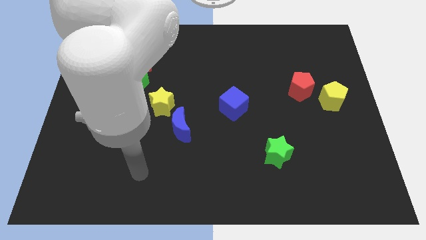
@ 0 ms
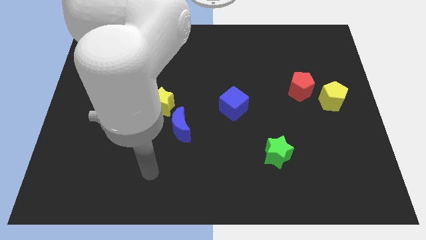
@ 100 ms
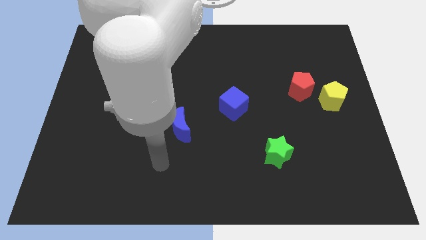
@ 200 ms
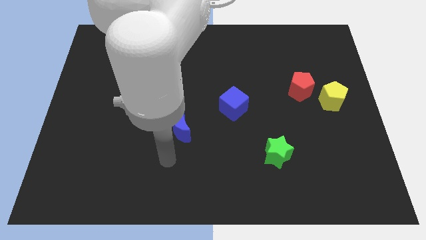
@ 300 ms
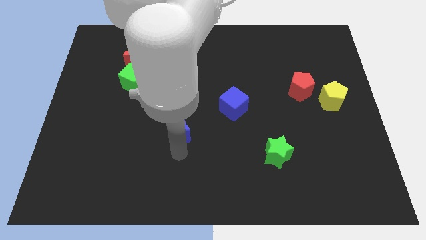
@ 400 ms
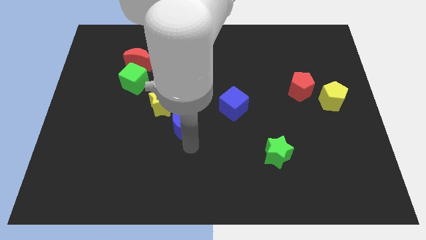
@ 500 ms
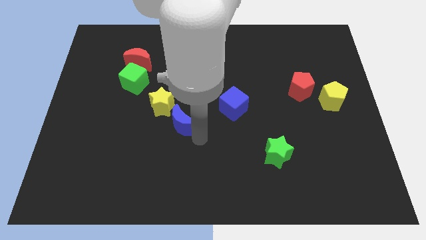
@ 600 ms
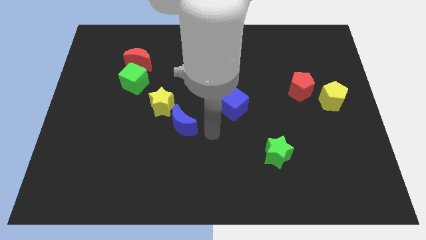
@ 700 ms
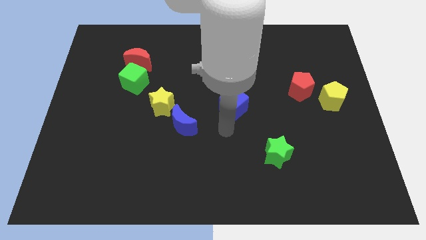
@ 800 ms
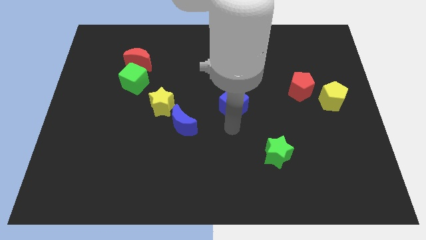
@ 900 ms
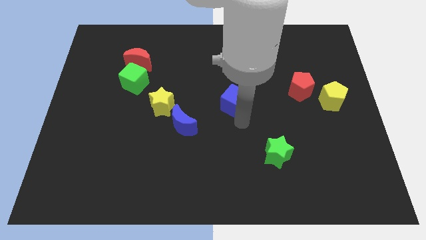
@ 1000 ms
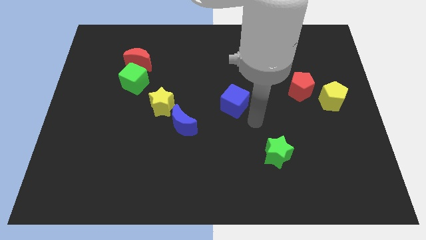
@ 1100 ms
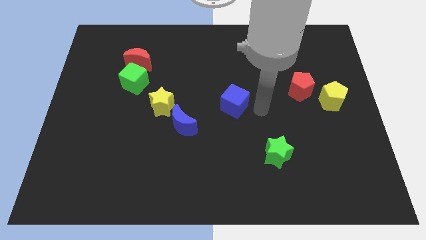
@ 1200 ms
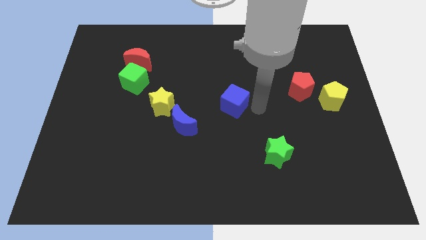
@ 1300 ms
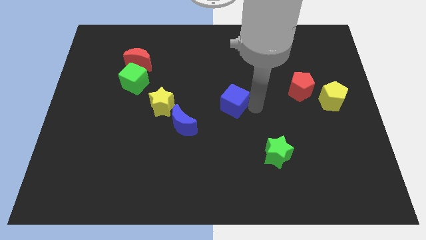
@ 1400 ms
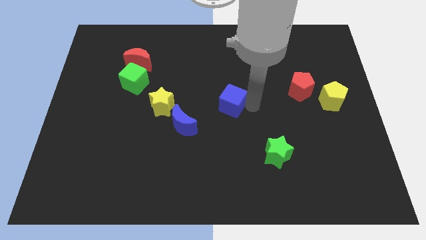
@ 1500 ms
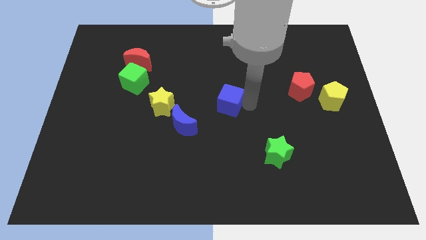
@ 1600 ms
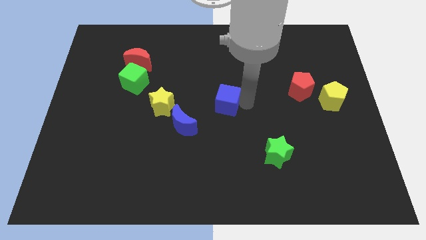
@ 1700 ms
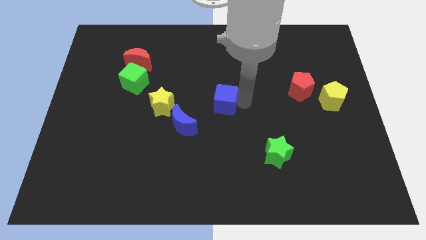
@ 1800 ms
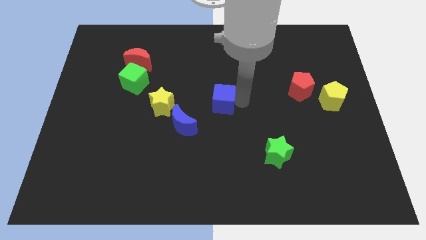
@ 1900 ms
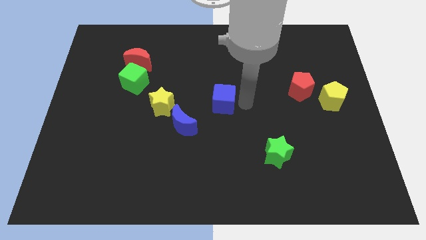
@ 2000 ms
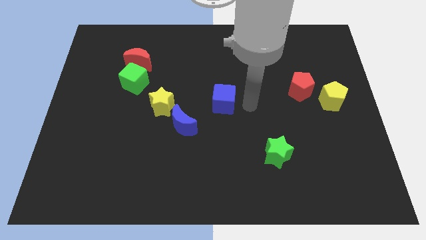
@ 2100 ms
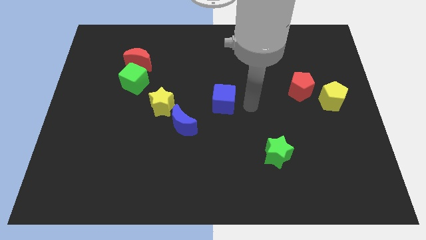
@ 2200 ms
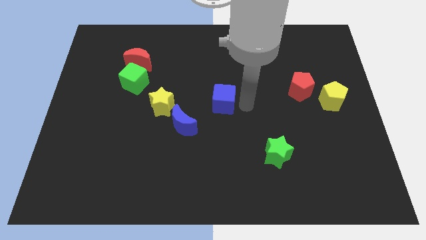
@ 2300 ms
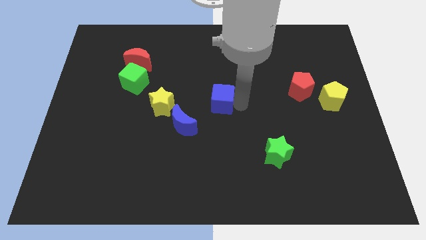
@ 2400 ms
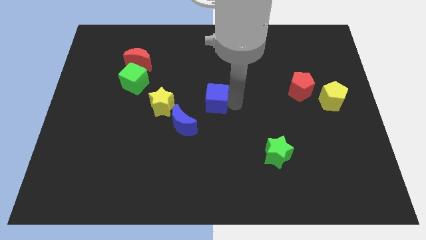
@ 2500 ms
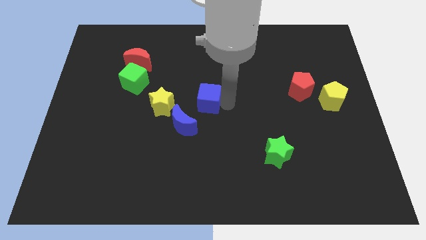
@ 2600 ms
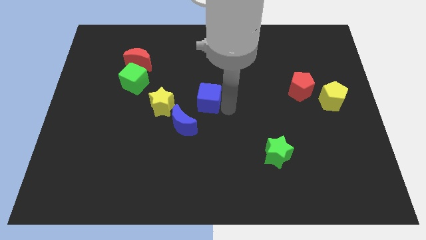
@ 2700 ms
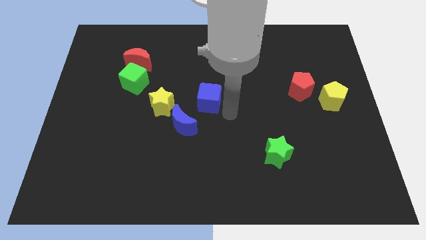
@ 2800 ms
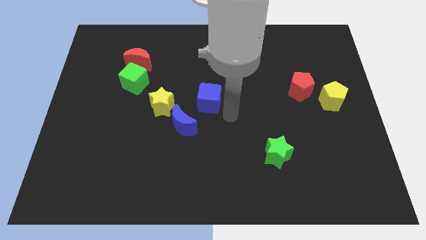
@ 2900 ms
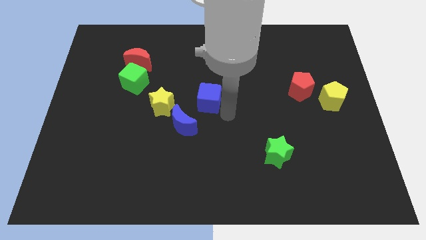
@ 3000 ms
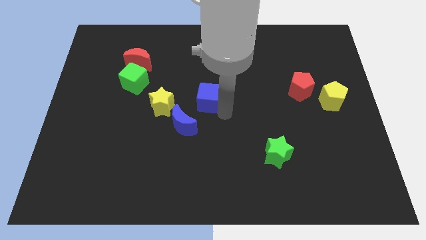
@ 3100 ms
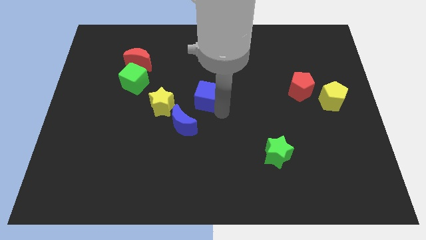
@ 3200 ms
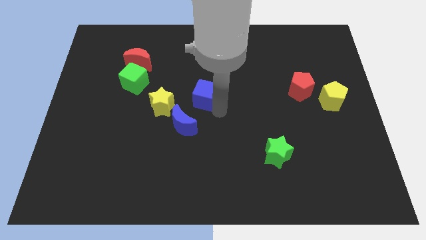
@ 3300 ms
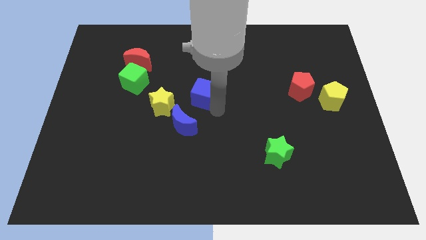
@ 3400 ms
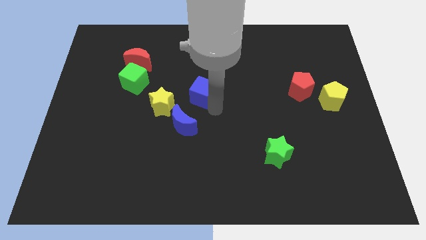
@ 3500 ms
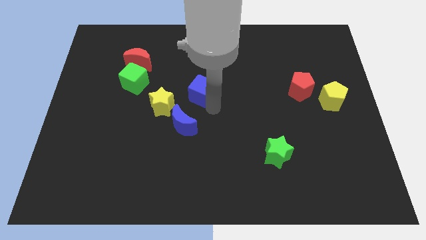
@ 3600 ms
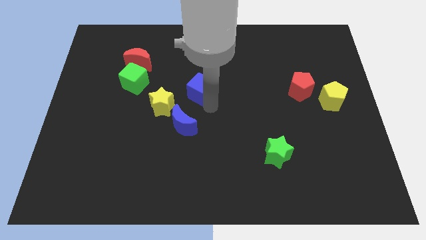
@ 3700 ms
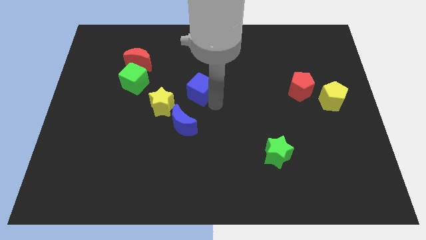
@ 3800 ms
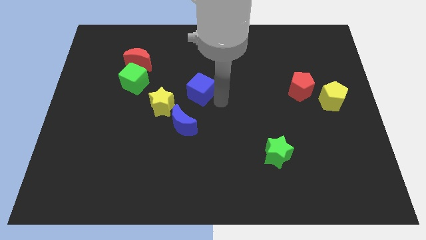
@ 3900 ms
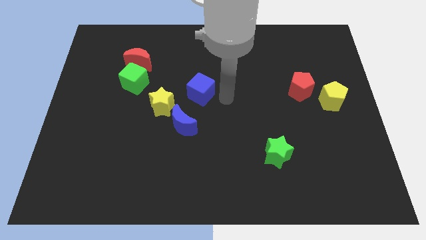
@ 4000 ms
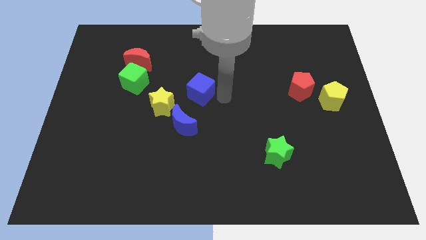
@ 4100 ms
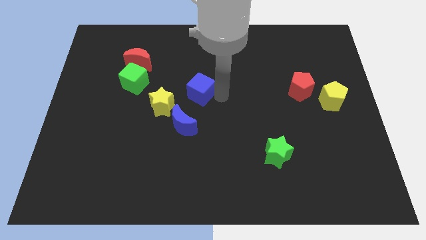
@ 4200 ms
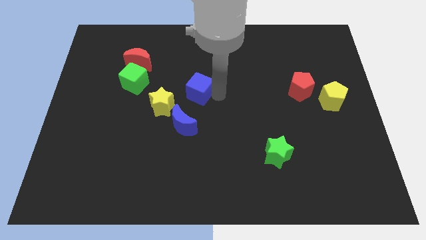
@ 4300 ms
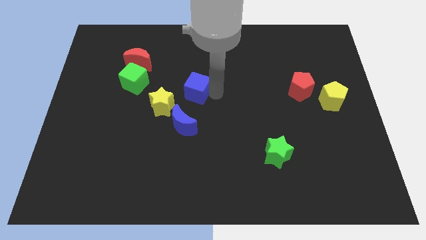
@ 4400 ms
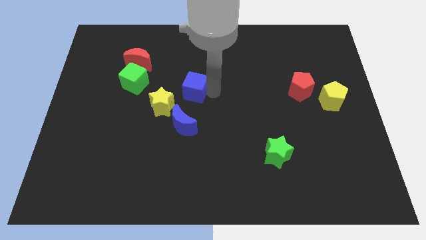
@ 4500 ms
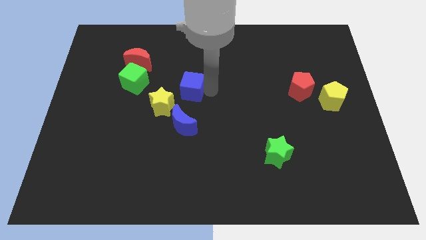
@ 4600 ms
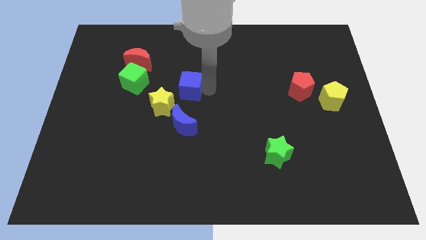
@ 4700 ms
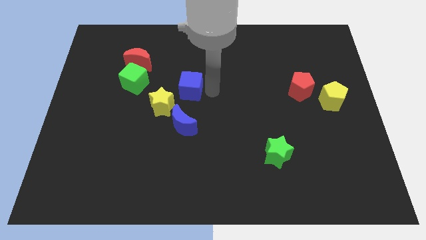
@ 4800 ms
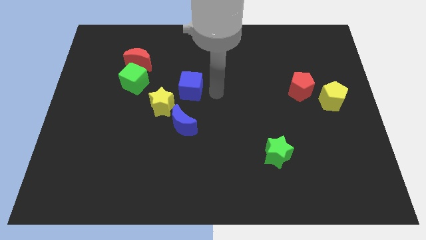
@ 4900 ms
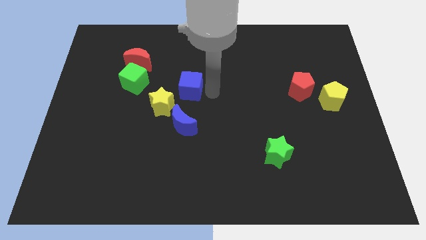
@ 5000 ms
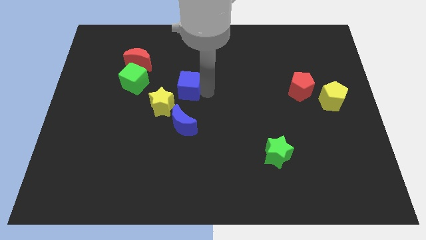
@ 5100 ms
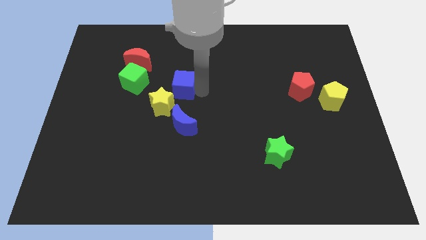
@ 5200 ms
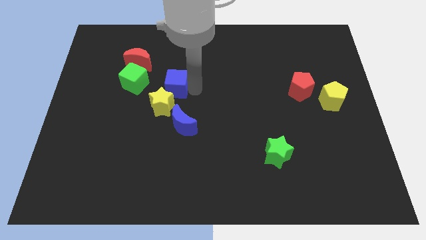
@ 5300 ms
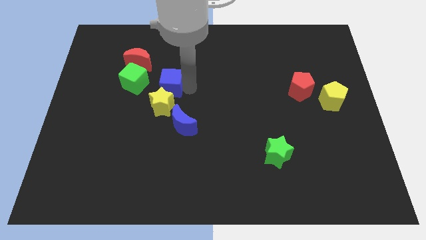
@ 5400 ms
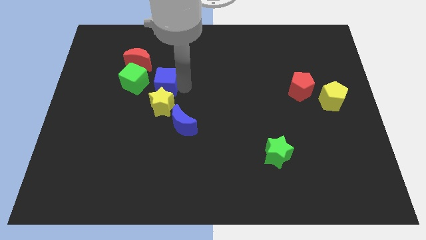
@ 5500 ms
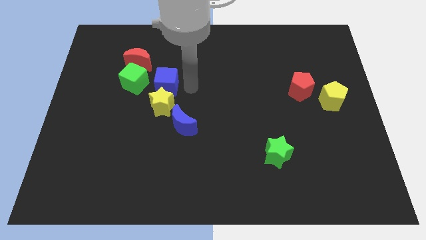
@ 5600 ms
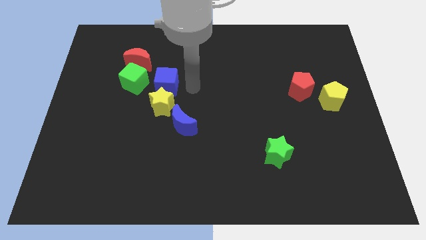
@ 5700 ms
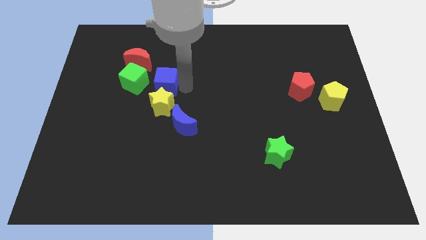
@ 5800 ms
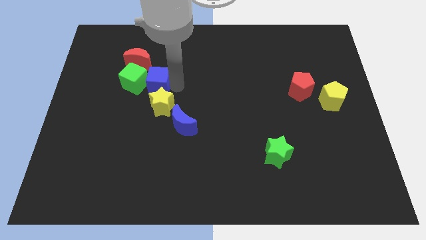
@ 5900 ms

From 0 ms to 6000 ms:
slide the blue cube towards the green cube

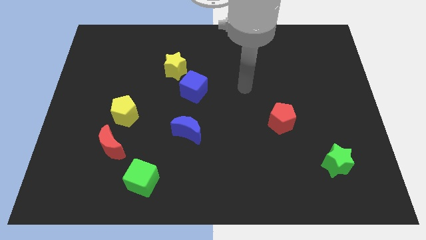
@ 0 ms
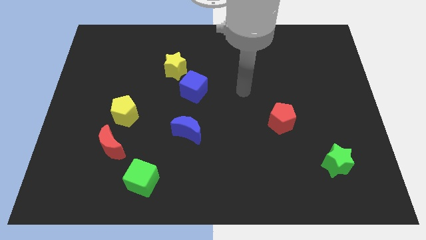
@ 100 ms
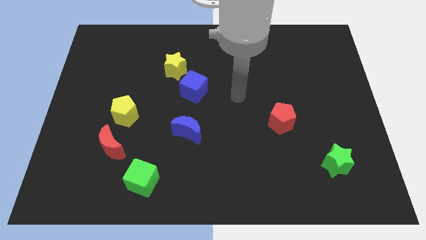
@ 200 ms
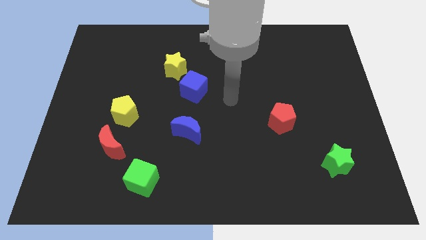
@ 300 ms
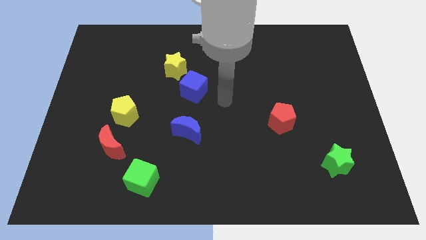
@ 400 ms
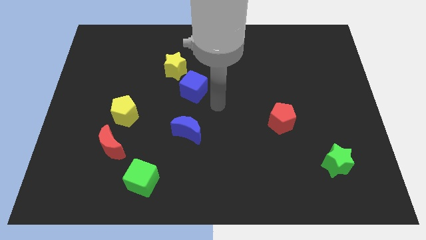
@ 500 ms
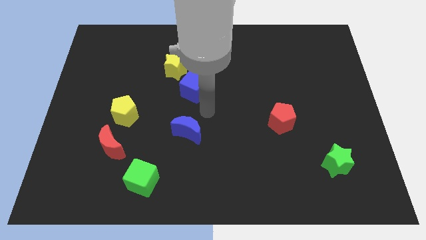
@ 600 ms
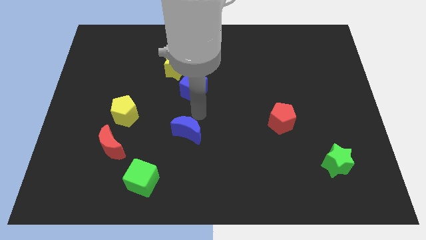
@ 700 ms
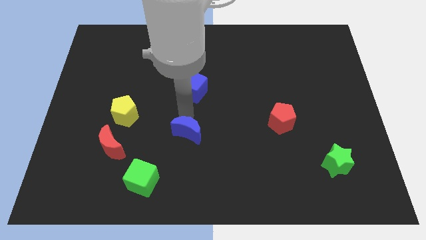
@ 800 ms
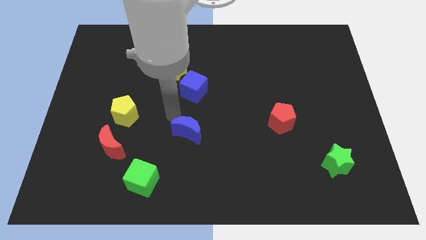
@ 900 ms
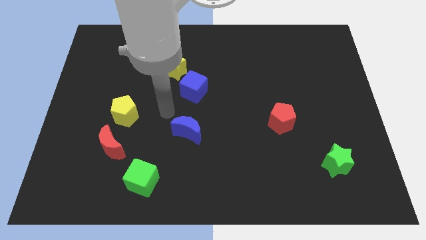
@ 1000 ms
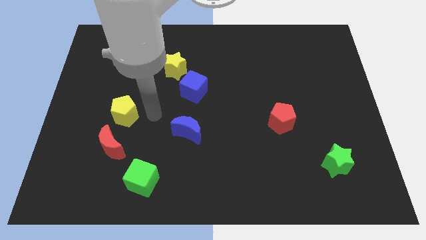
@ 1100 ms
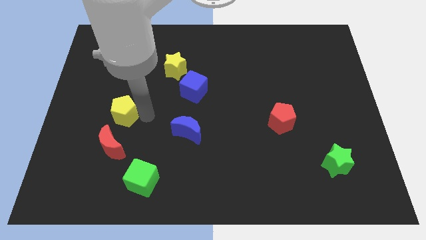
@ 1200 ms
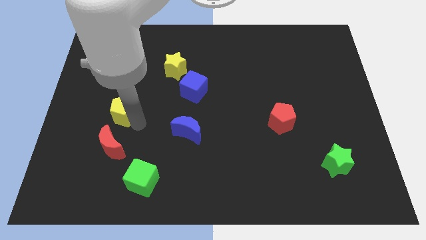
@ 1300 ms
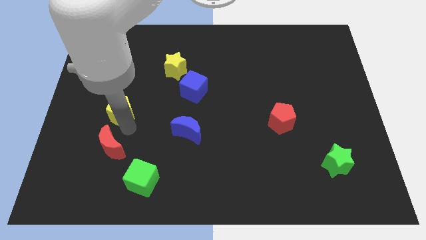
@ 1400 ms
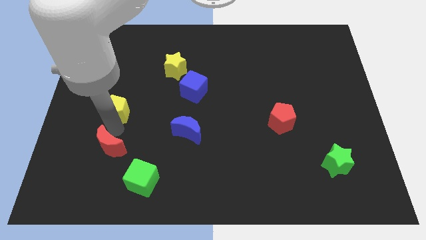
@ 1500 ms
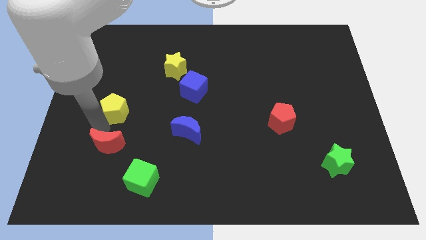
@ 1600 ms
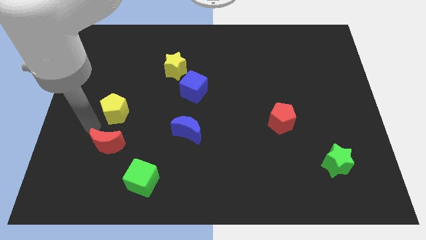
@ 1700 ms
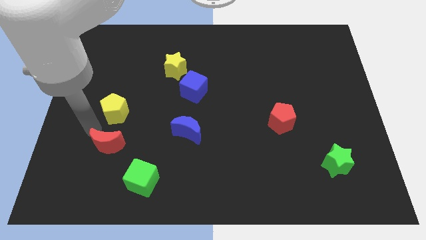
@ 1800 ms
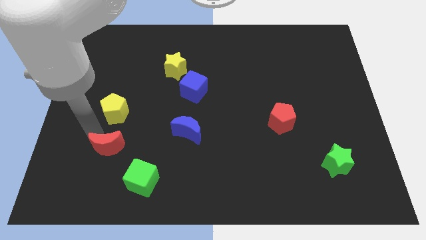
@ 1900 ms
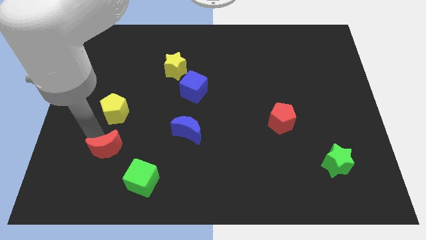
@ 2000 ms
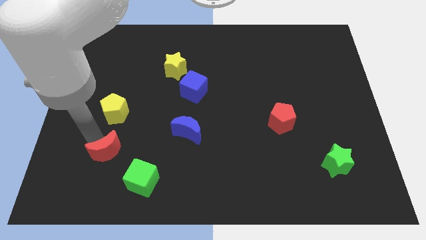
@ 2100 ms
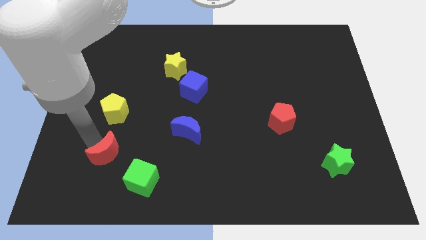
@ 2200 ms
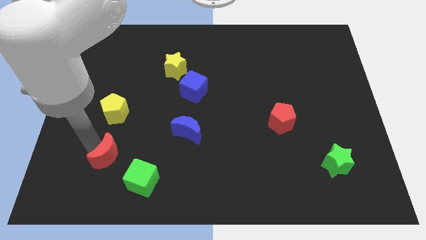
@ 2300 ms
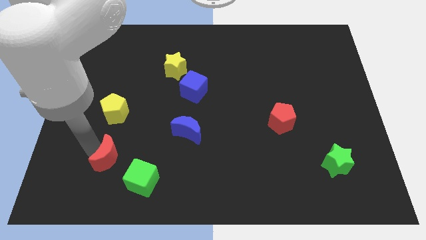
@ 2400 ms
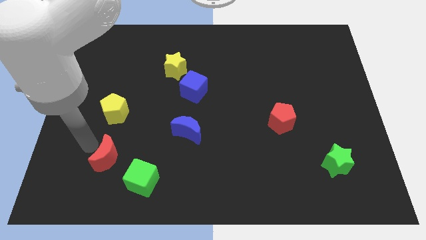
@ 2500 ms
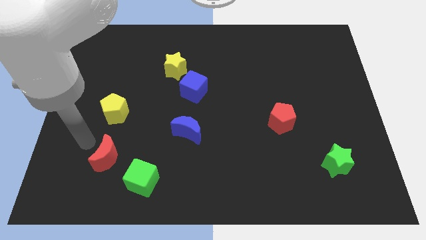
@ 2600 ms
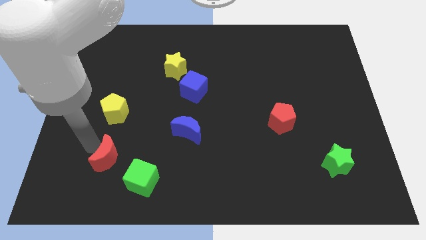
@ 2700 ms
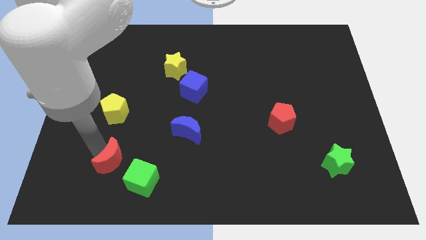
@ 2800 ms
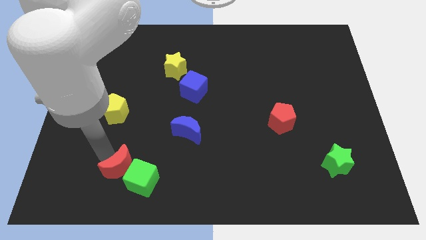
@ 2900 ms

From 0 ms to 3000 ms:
put the red moon next to the green cube
